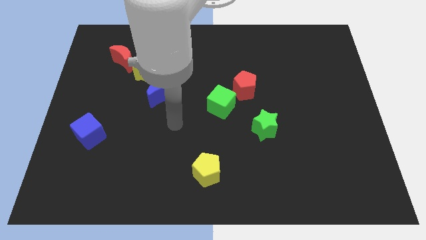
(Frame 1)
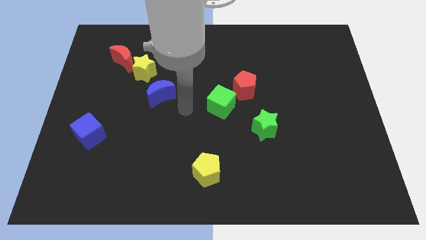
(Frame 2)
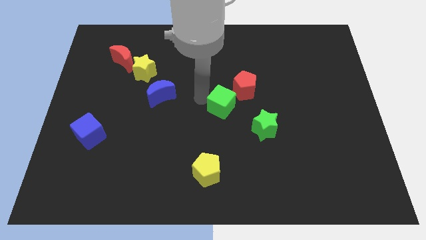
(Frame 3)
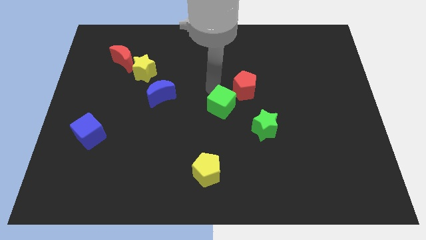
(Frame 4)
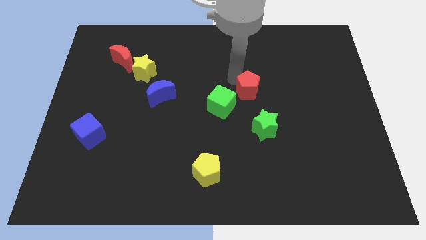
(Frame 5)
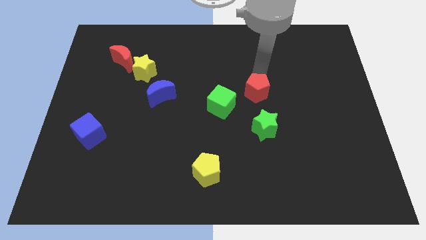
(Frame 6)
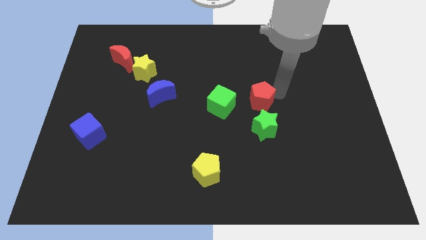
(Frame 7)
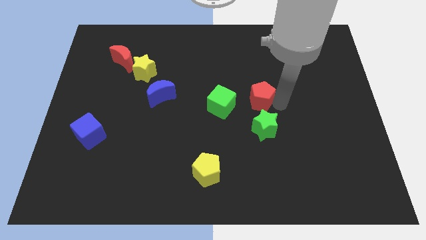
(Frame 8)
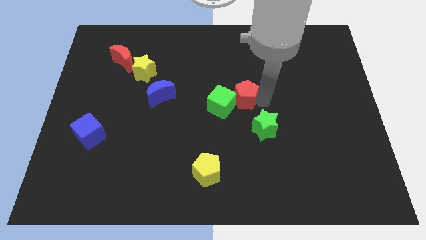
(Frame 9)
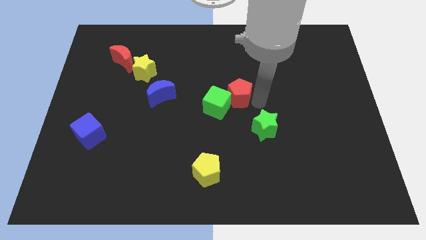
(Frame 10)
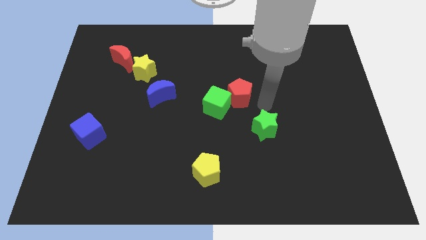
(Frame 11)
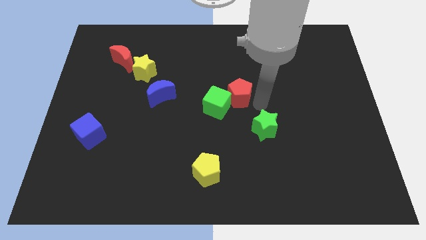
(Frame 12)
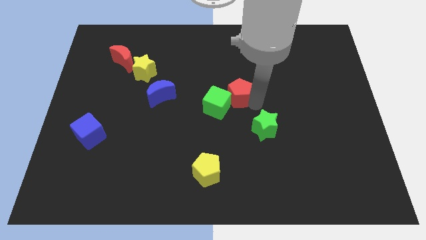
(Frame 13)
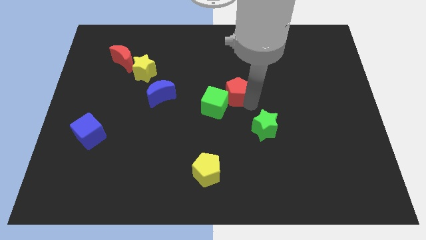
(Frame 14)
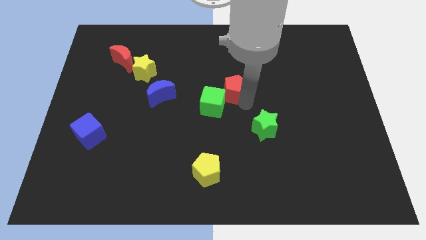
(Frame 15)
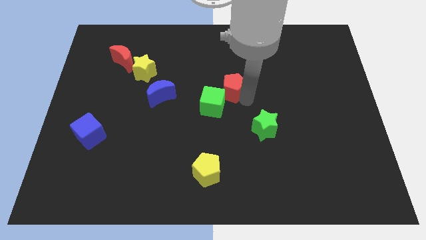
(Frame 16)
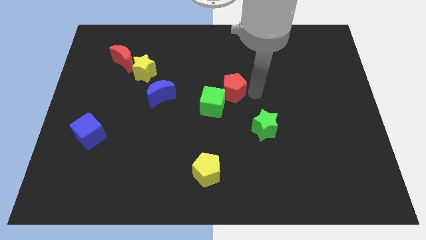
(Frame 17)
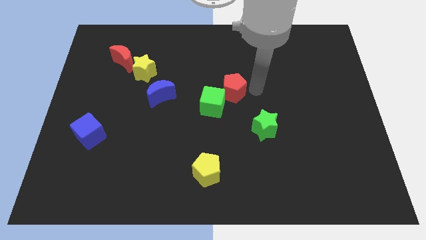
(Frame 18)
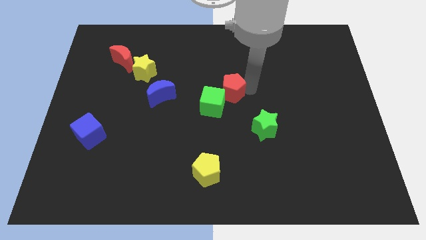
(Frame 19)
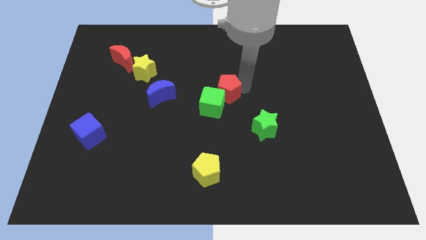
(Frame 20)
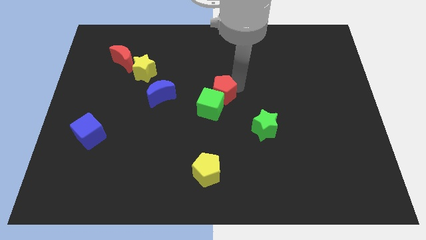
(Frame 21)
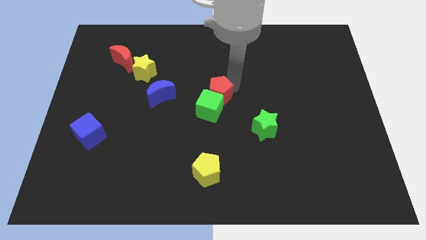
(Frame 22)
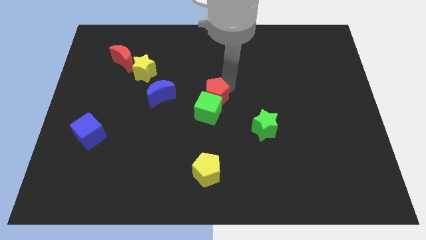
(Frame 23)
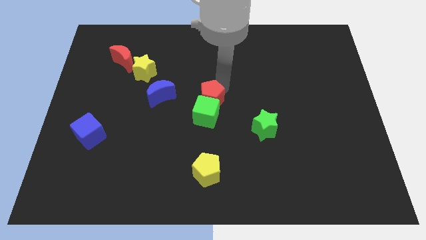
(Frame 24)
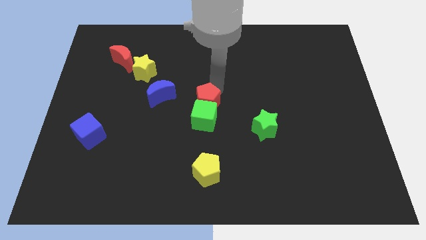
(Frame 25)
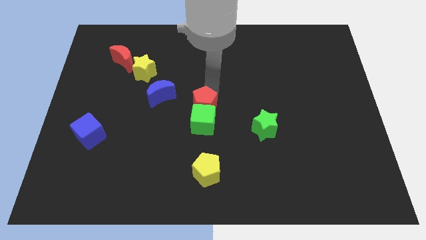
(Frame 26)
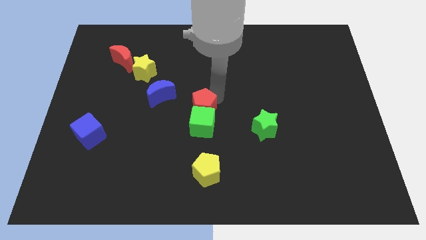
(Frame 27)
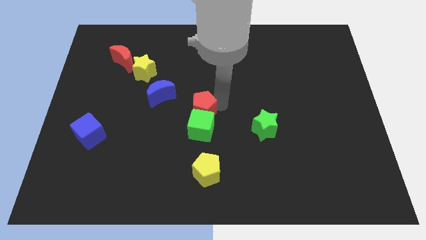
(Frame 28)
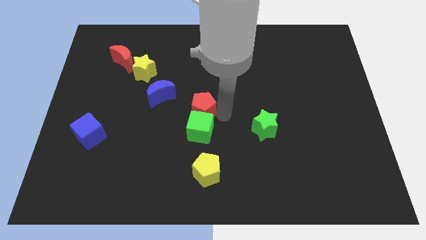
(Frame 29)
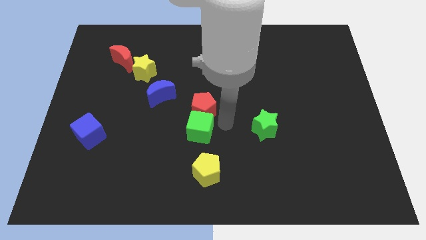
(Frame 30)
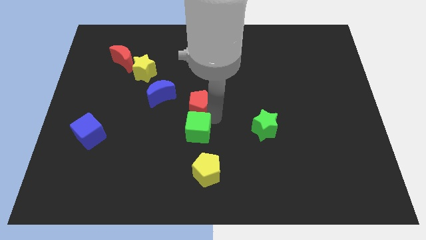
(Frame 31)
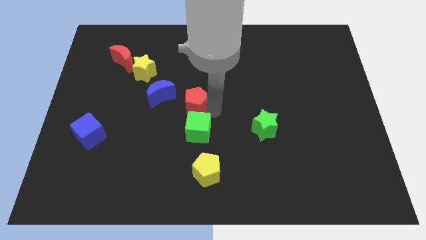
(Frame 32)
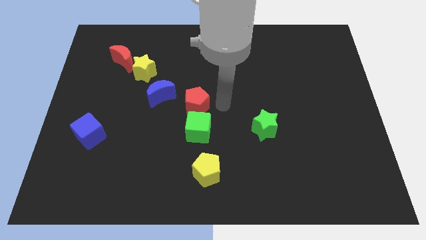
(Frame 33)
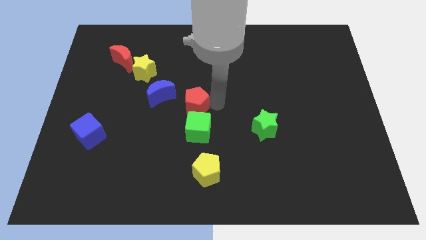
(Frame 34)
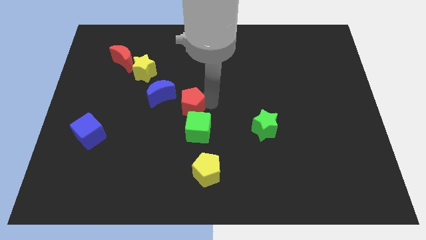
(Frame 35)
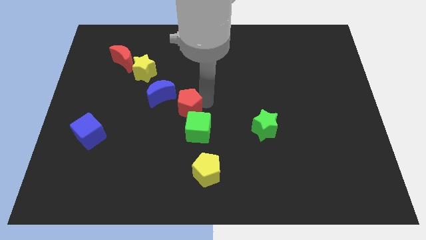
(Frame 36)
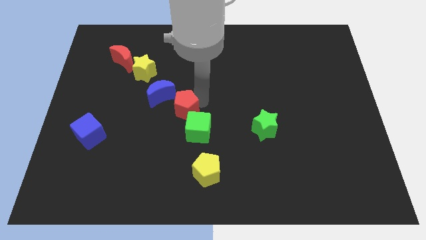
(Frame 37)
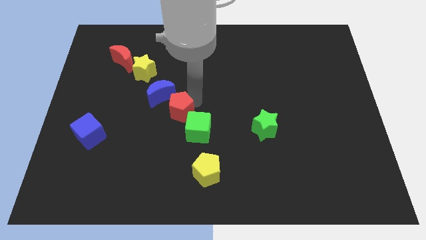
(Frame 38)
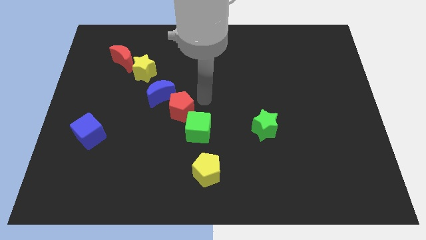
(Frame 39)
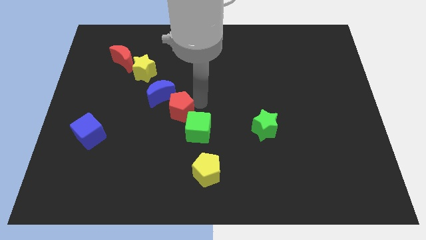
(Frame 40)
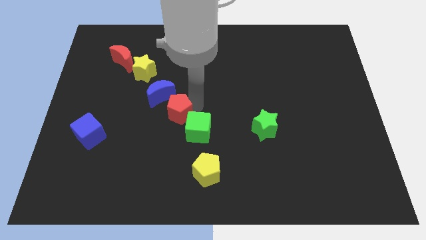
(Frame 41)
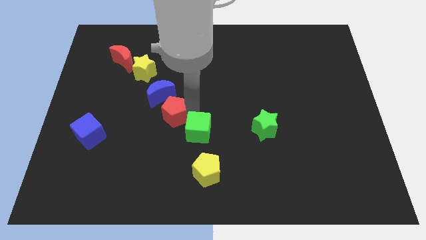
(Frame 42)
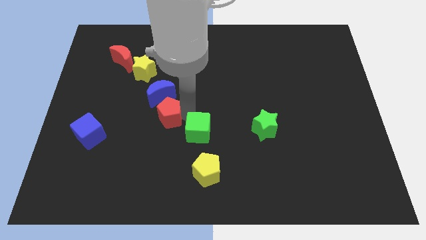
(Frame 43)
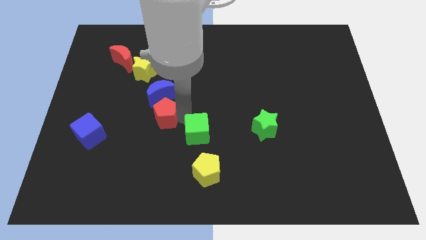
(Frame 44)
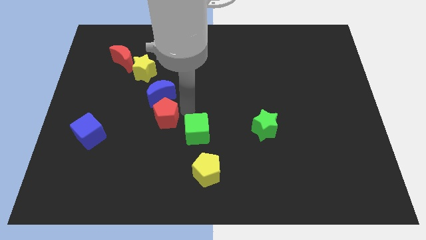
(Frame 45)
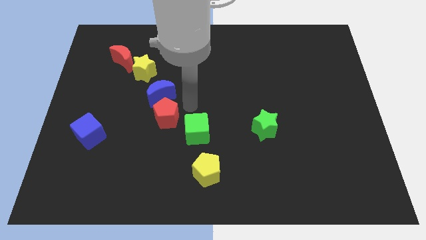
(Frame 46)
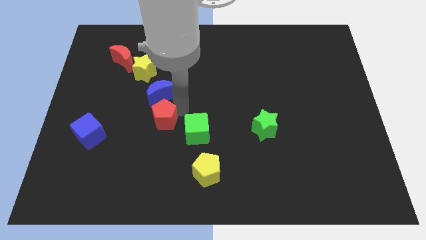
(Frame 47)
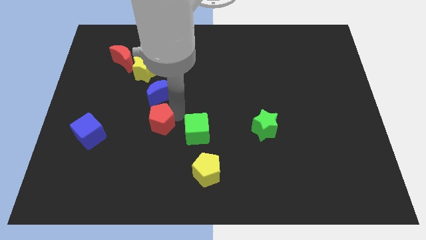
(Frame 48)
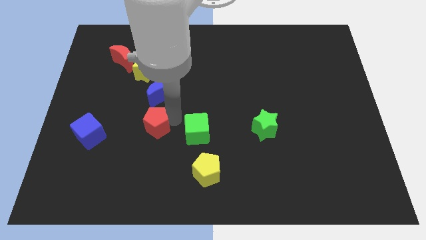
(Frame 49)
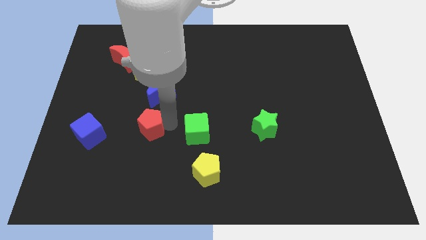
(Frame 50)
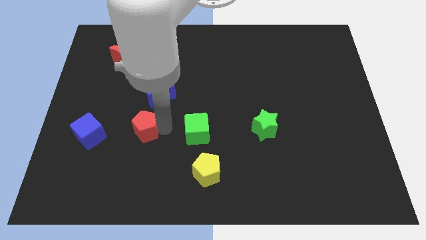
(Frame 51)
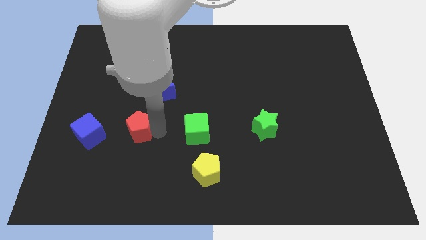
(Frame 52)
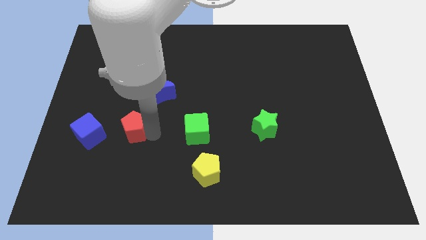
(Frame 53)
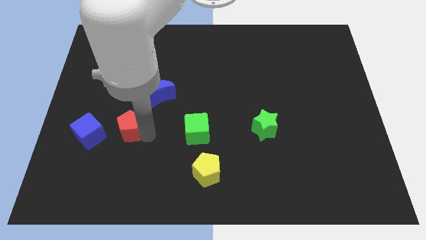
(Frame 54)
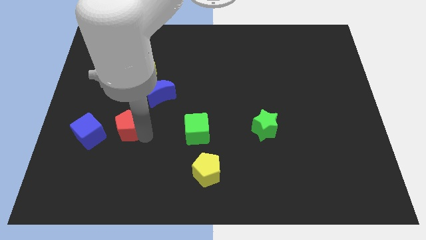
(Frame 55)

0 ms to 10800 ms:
put the red pentagon diagonally up and to the right of the blue cube

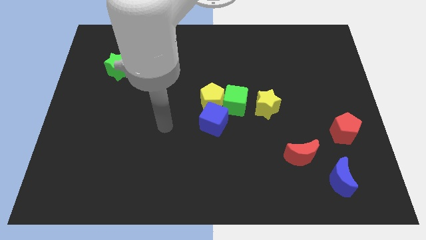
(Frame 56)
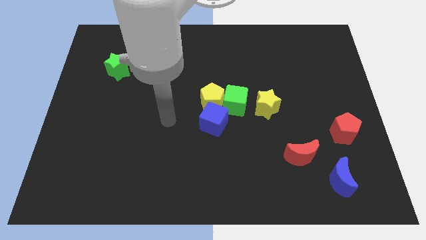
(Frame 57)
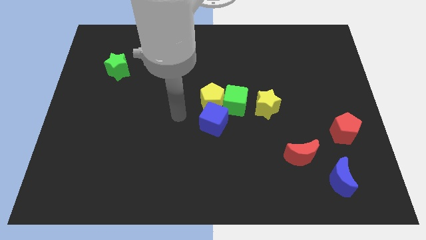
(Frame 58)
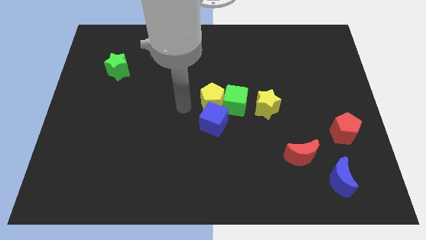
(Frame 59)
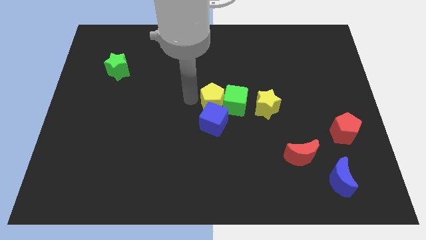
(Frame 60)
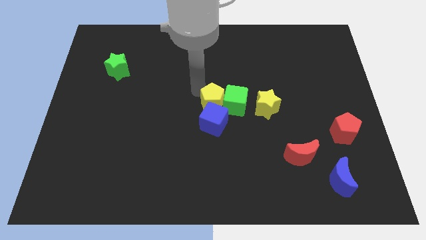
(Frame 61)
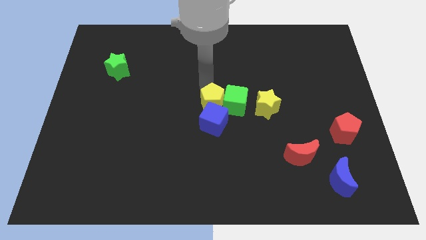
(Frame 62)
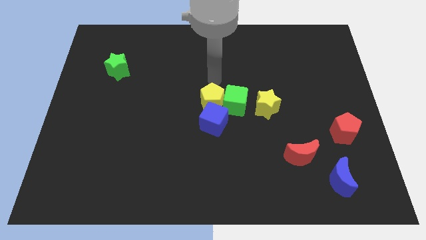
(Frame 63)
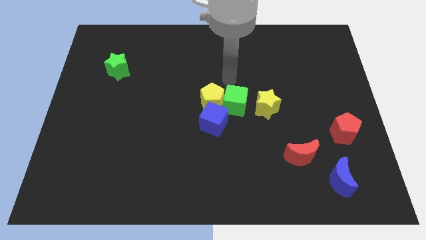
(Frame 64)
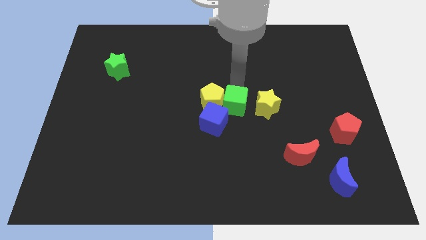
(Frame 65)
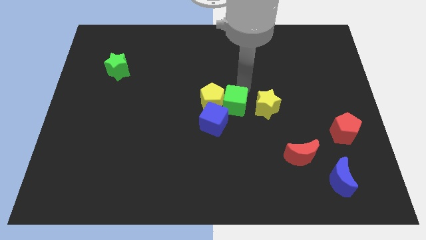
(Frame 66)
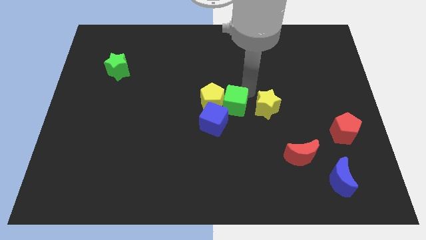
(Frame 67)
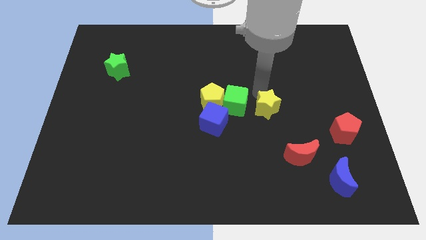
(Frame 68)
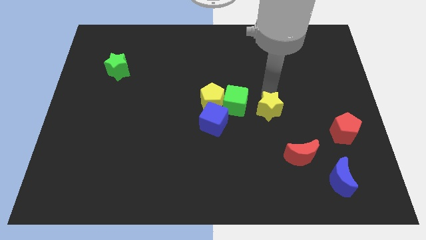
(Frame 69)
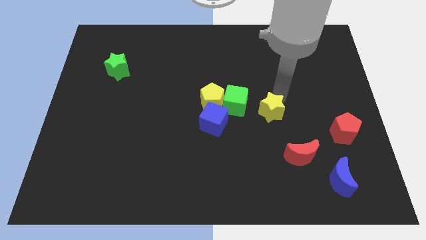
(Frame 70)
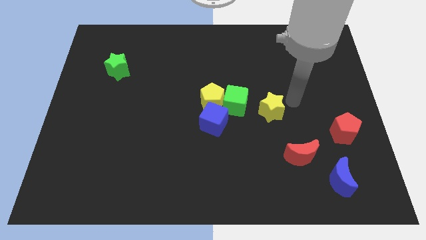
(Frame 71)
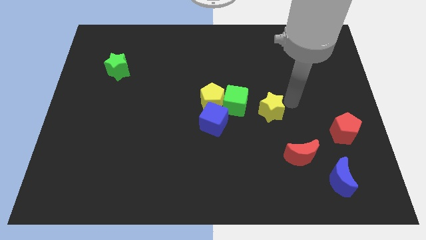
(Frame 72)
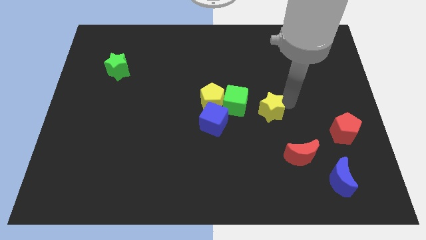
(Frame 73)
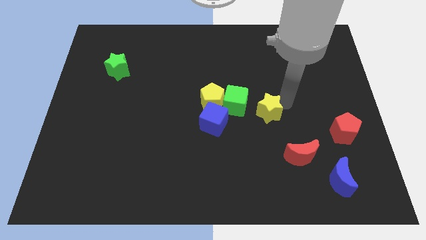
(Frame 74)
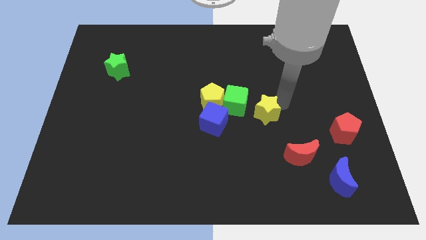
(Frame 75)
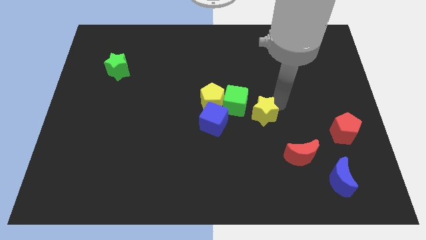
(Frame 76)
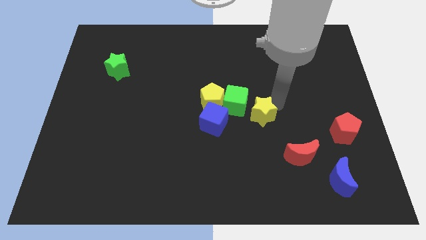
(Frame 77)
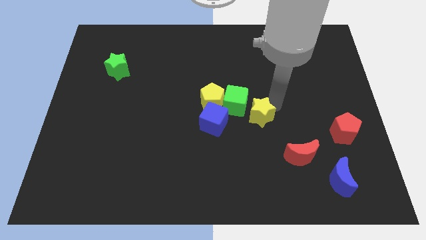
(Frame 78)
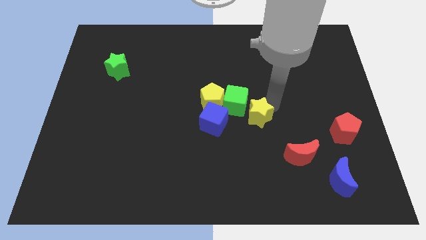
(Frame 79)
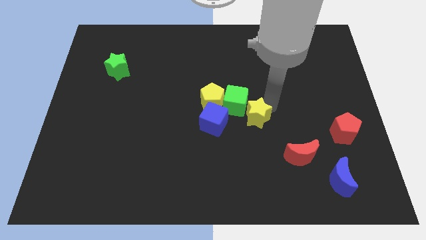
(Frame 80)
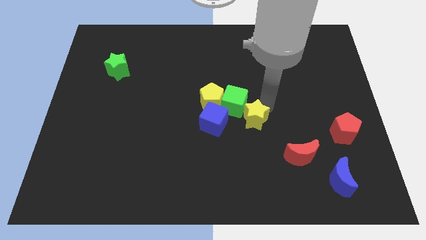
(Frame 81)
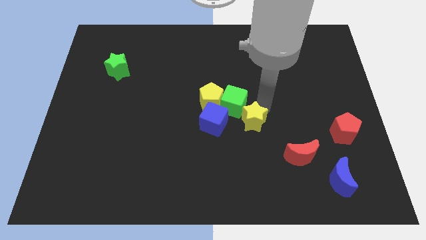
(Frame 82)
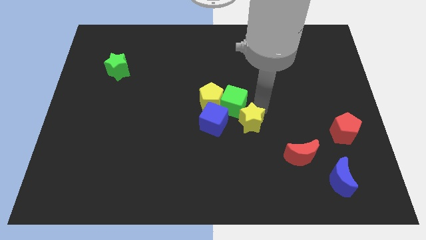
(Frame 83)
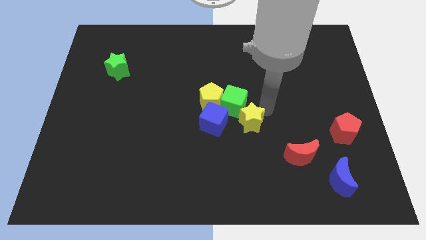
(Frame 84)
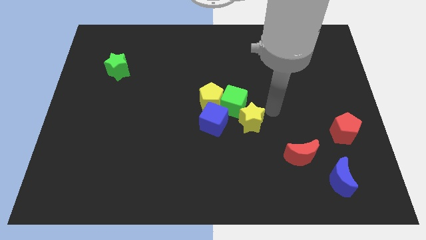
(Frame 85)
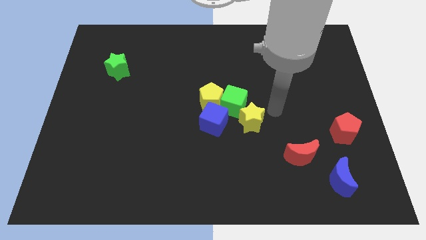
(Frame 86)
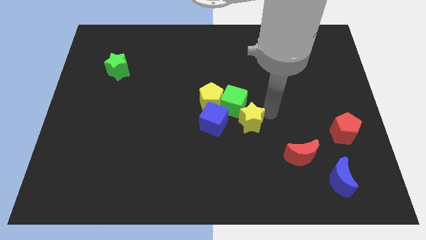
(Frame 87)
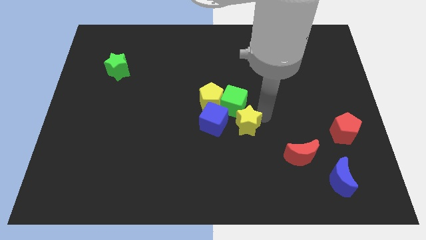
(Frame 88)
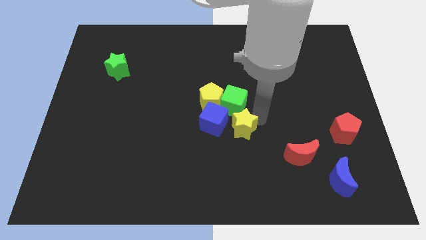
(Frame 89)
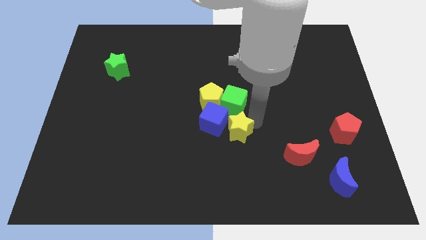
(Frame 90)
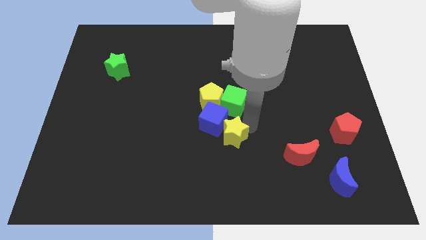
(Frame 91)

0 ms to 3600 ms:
slide the yellow star to the bottom side of the yellow pentagon
